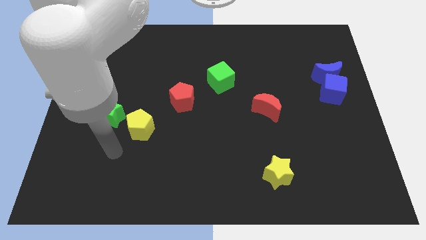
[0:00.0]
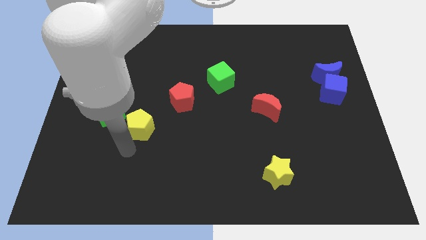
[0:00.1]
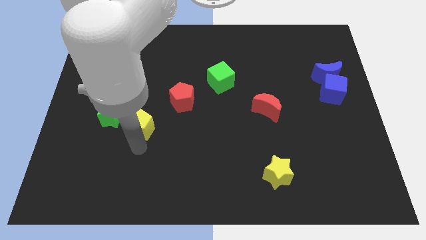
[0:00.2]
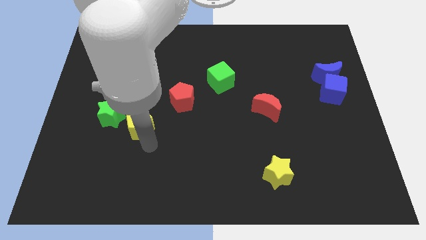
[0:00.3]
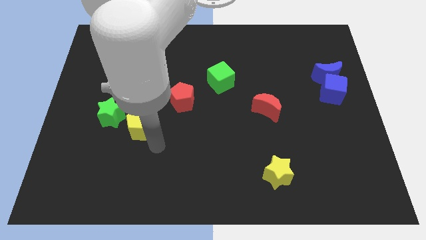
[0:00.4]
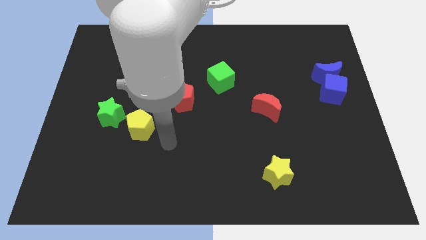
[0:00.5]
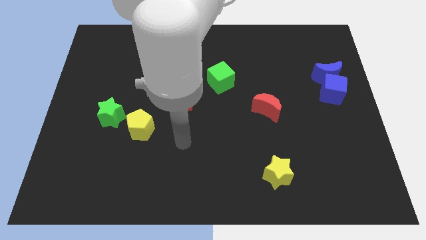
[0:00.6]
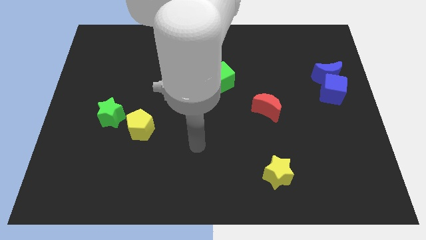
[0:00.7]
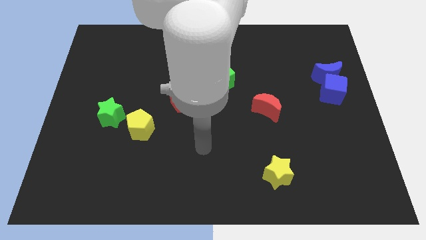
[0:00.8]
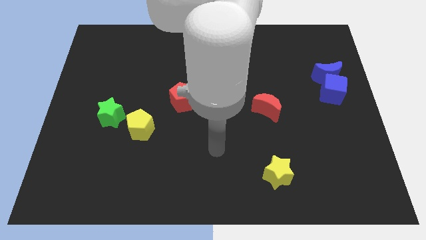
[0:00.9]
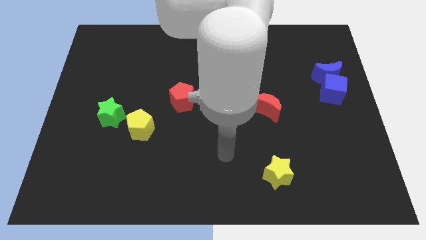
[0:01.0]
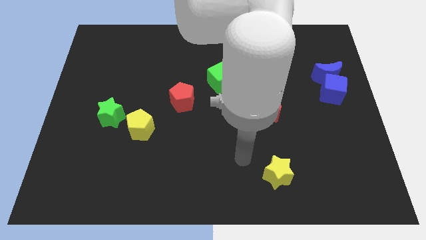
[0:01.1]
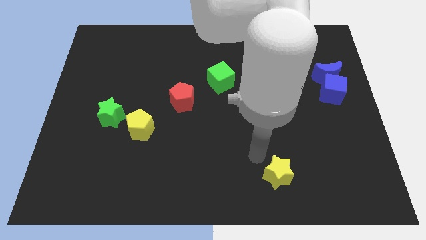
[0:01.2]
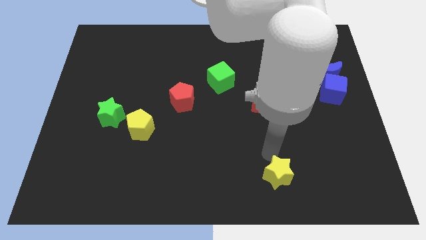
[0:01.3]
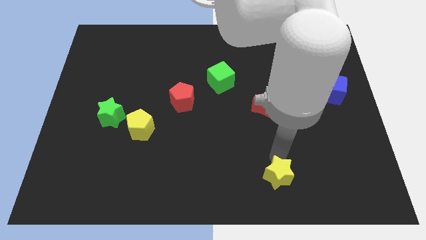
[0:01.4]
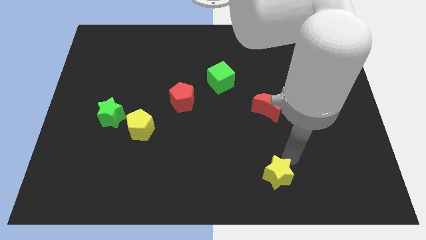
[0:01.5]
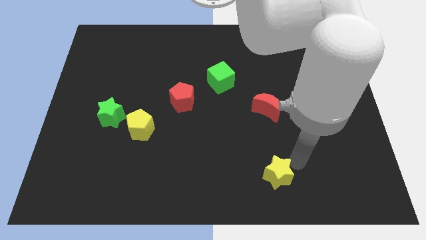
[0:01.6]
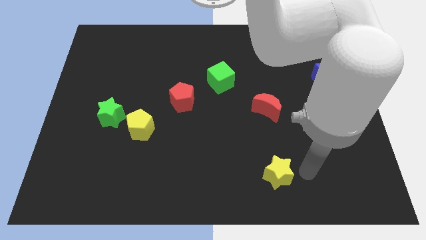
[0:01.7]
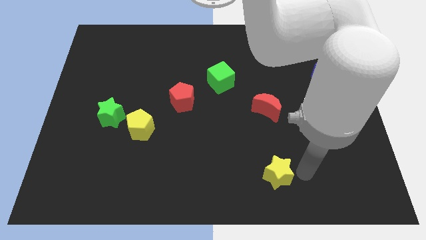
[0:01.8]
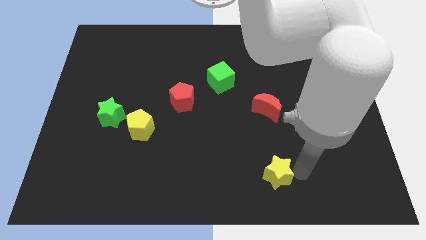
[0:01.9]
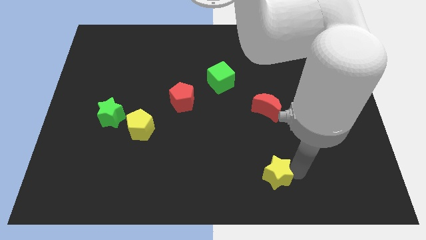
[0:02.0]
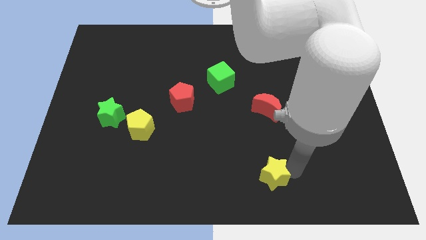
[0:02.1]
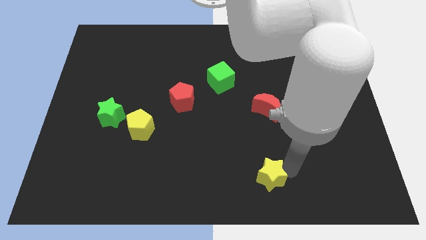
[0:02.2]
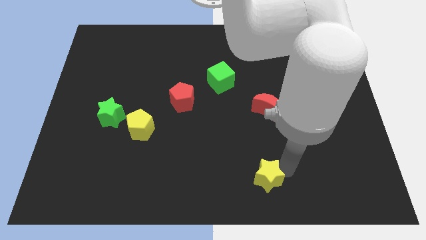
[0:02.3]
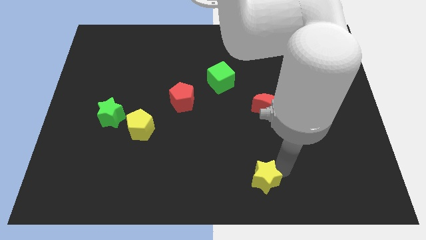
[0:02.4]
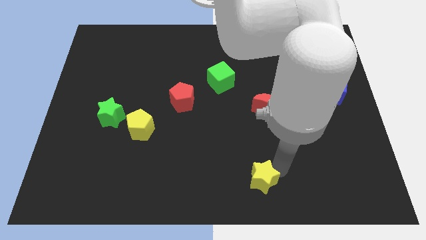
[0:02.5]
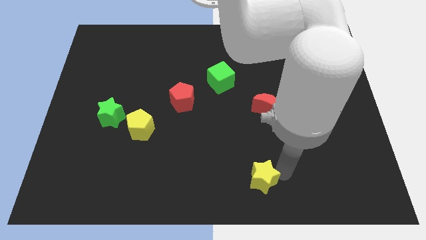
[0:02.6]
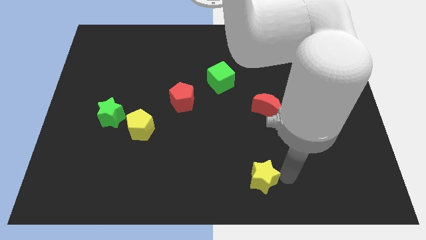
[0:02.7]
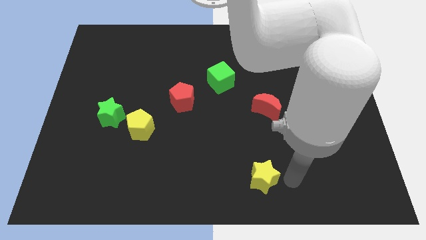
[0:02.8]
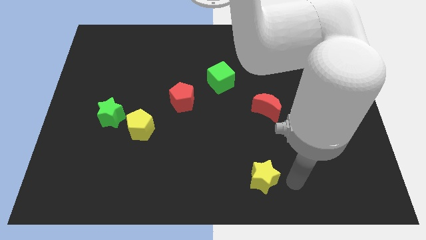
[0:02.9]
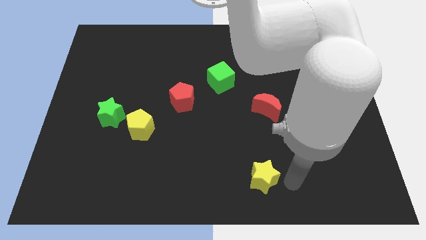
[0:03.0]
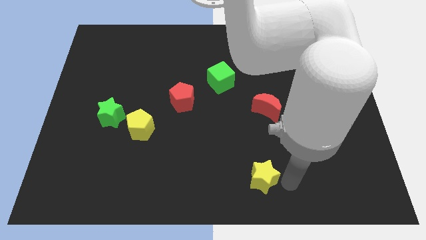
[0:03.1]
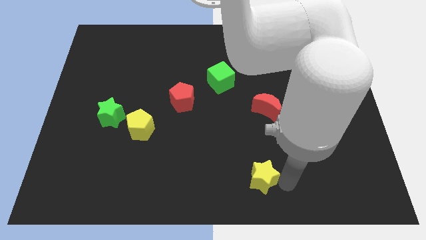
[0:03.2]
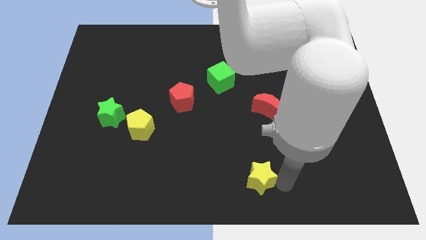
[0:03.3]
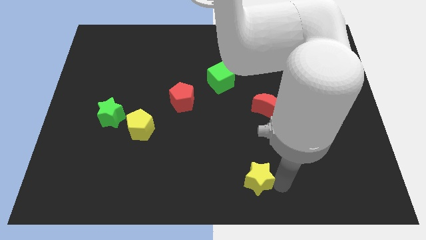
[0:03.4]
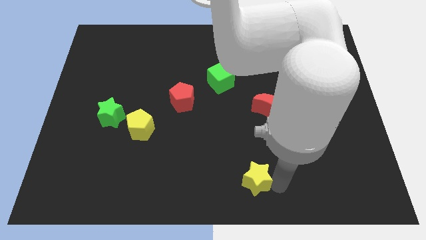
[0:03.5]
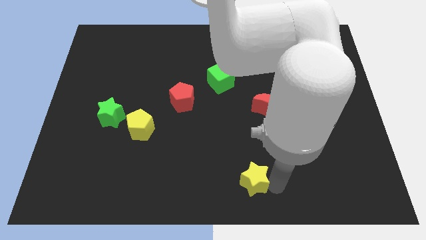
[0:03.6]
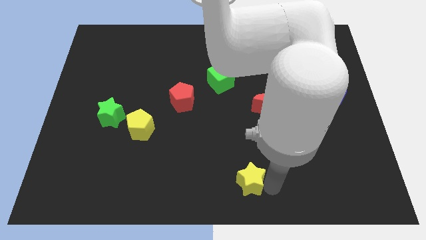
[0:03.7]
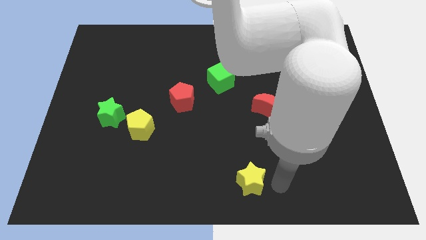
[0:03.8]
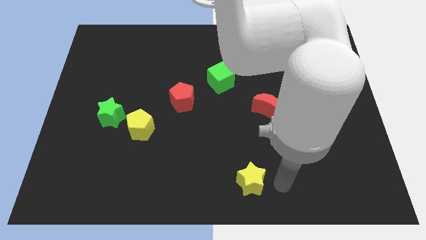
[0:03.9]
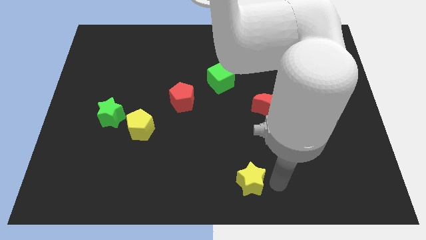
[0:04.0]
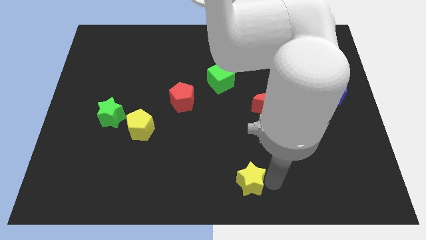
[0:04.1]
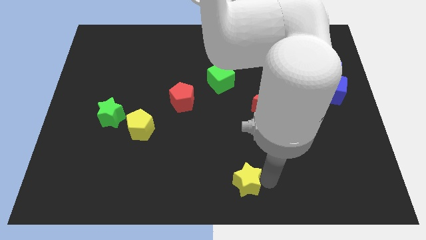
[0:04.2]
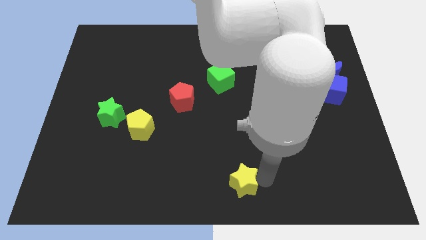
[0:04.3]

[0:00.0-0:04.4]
slide the yellow star slightly to the left

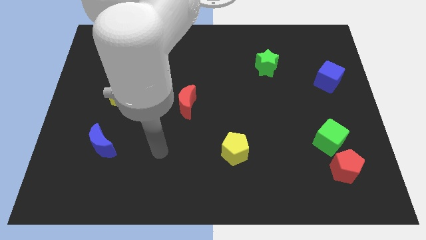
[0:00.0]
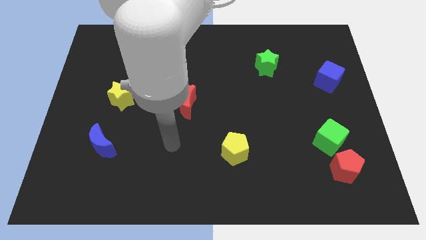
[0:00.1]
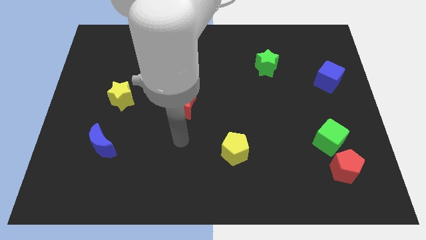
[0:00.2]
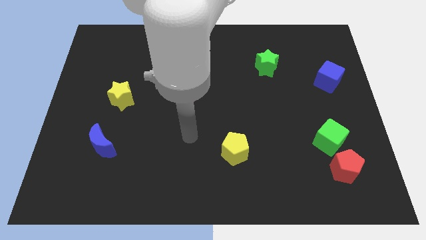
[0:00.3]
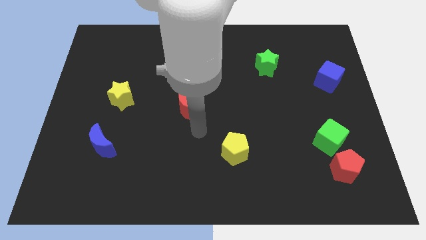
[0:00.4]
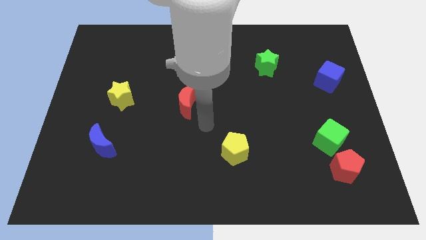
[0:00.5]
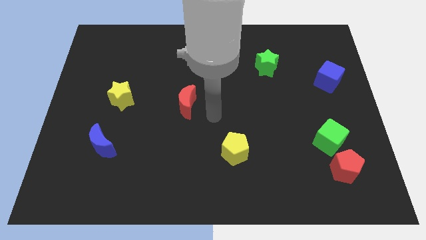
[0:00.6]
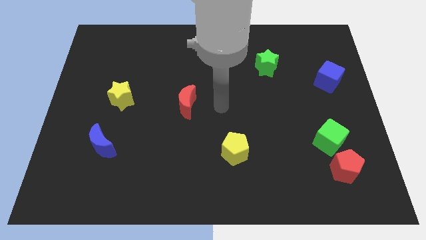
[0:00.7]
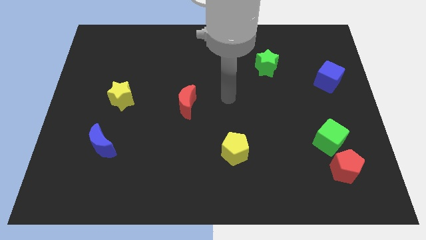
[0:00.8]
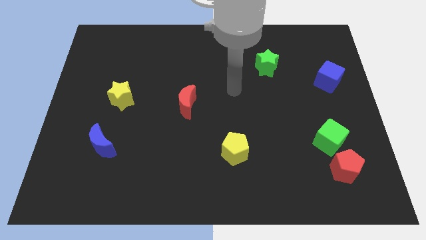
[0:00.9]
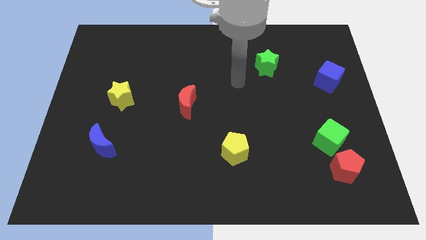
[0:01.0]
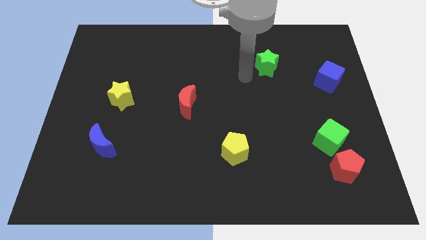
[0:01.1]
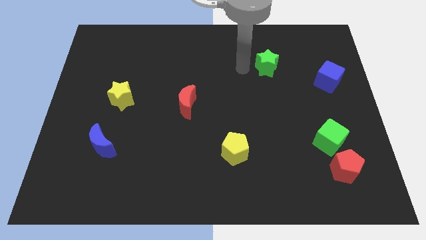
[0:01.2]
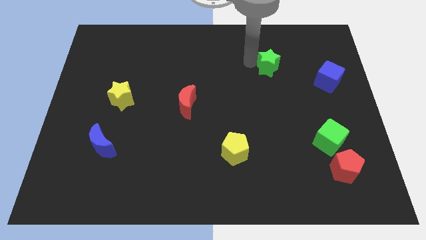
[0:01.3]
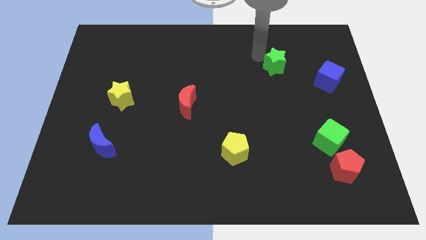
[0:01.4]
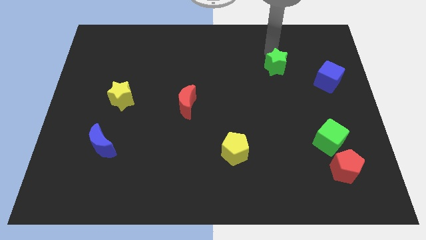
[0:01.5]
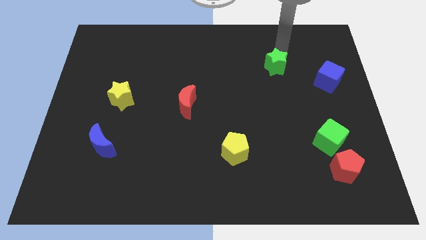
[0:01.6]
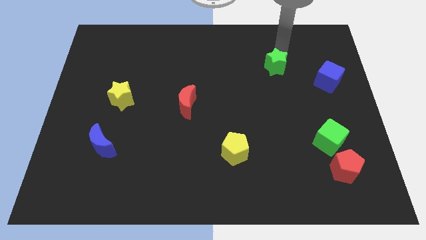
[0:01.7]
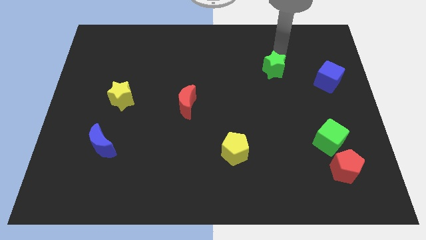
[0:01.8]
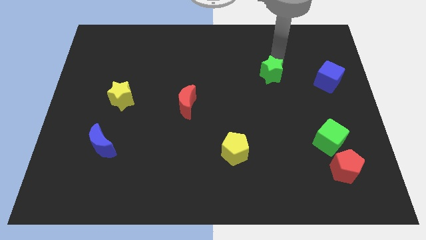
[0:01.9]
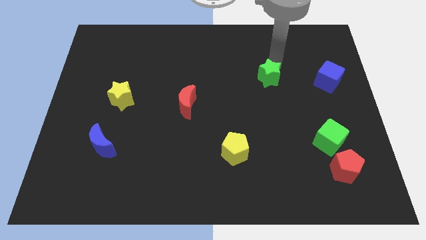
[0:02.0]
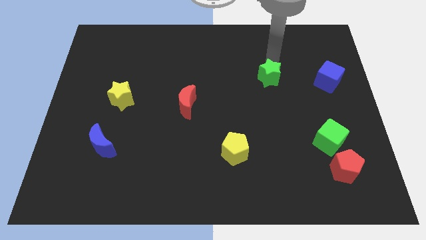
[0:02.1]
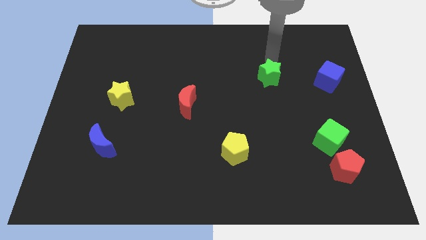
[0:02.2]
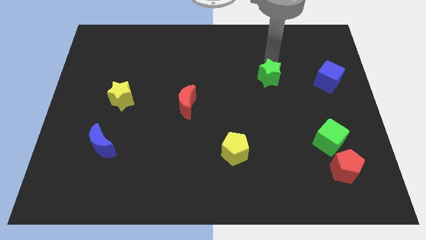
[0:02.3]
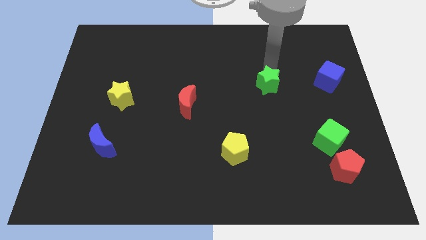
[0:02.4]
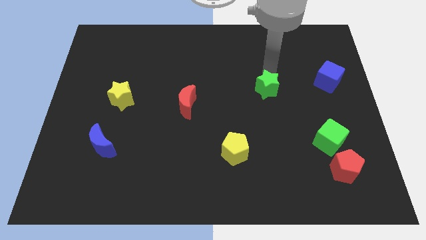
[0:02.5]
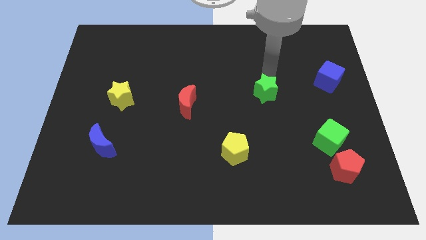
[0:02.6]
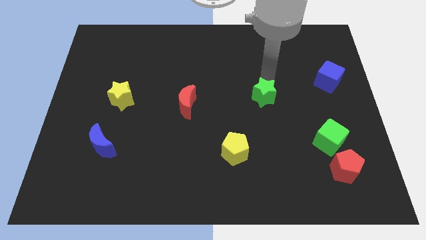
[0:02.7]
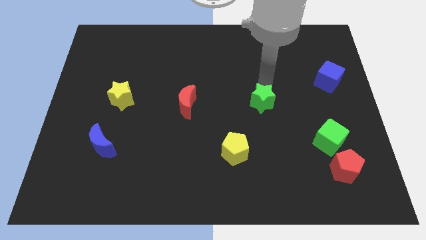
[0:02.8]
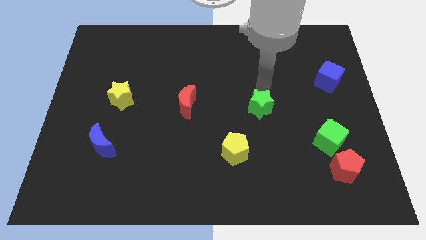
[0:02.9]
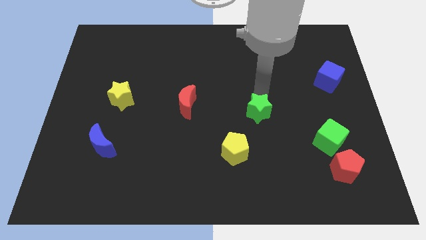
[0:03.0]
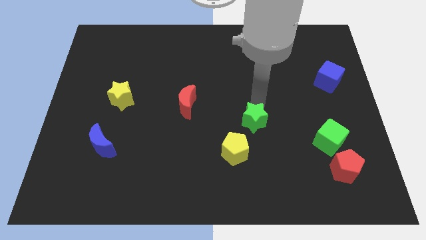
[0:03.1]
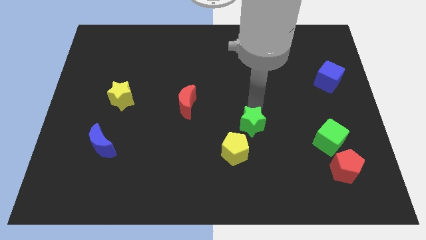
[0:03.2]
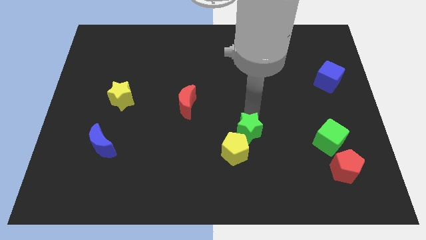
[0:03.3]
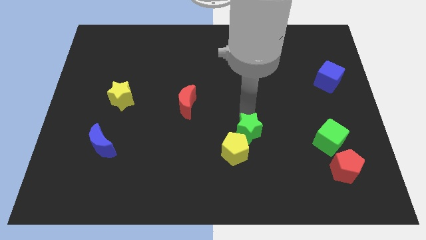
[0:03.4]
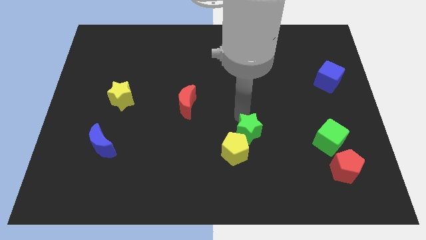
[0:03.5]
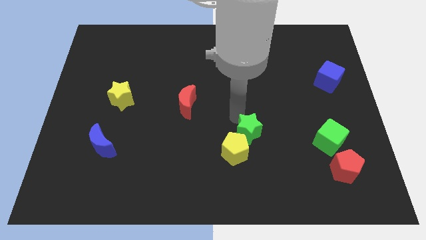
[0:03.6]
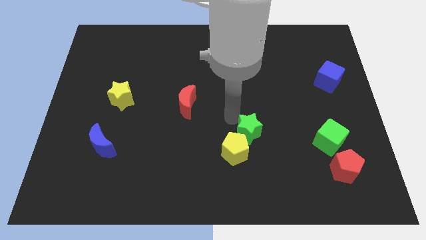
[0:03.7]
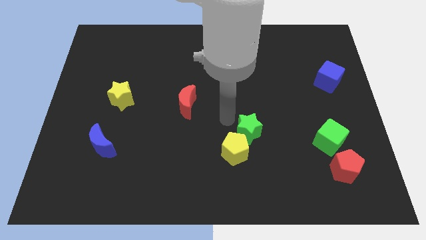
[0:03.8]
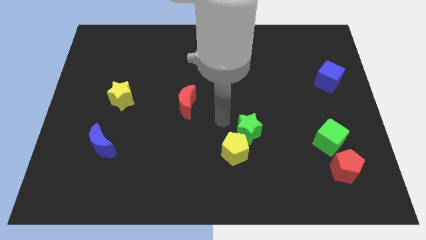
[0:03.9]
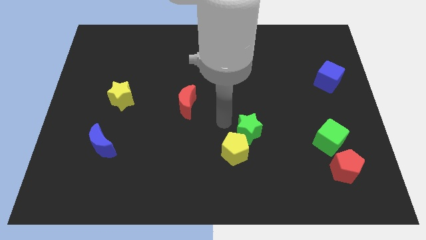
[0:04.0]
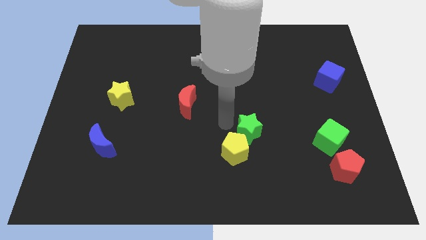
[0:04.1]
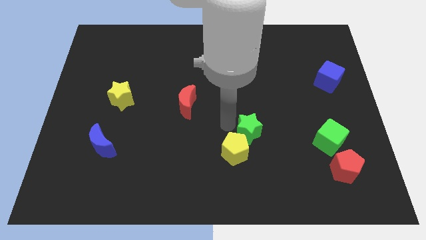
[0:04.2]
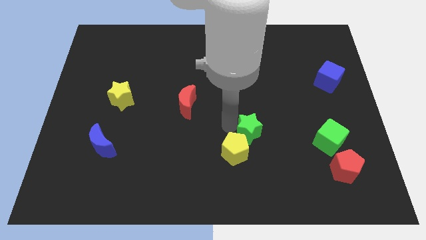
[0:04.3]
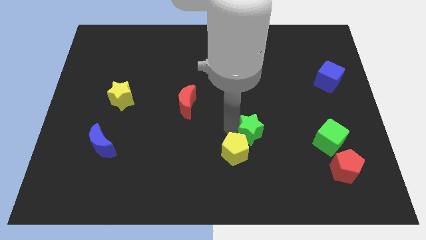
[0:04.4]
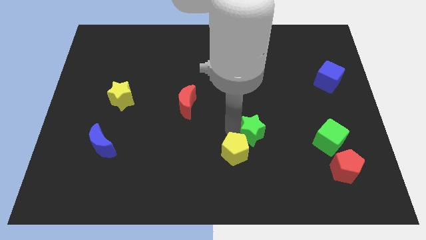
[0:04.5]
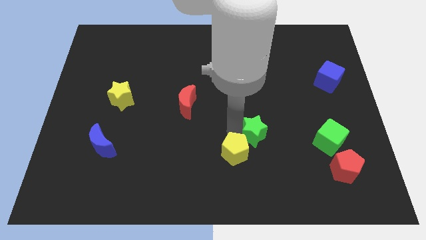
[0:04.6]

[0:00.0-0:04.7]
move the green star down
